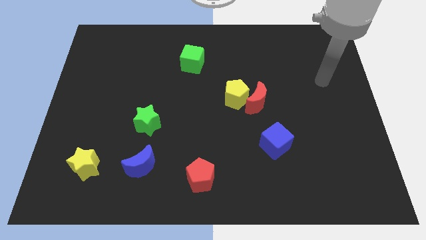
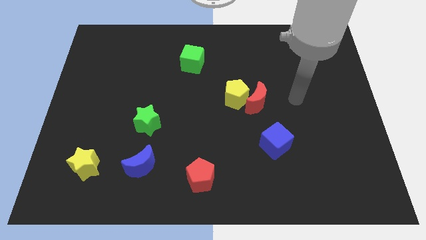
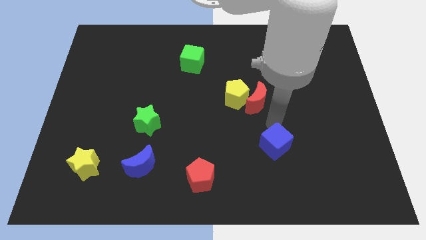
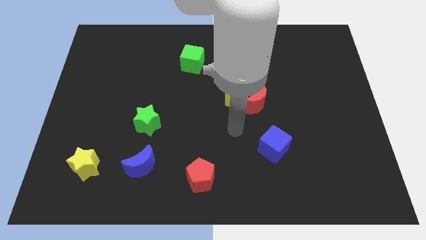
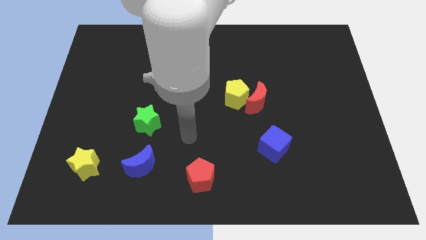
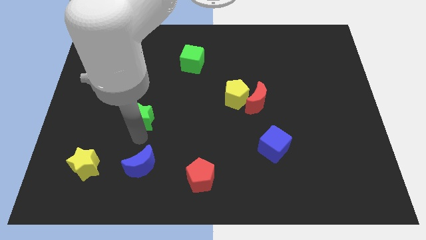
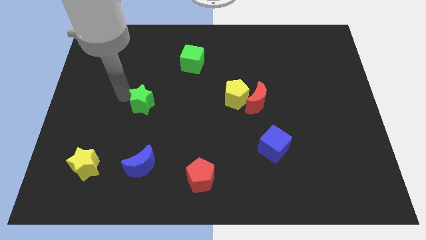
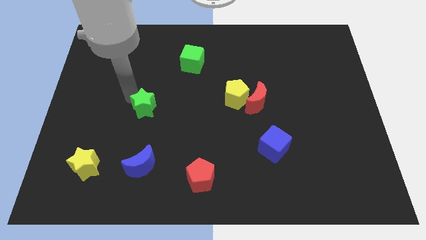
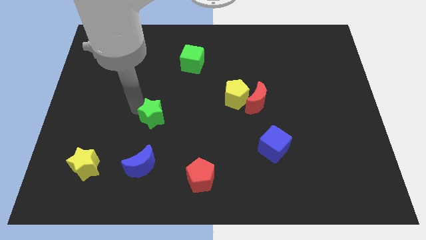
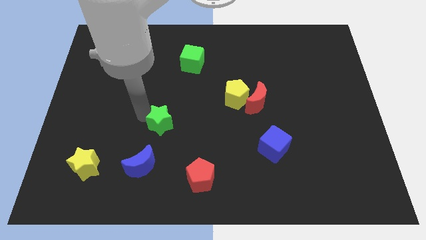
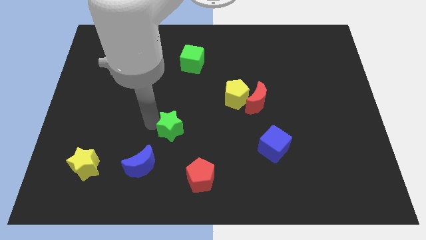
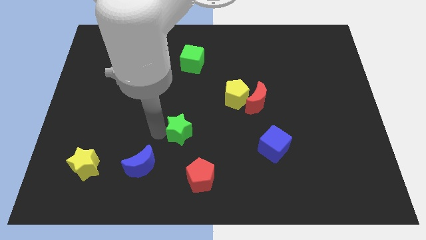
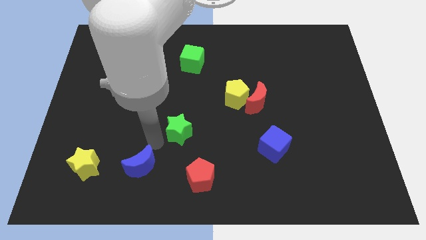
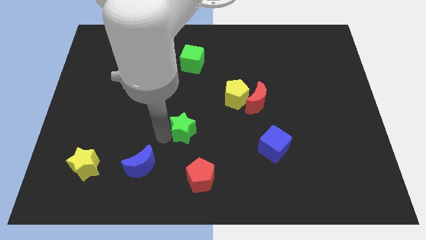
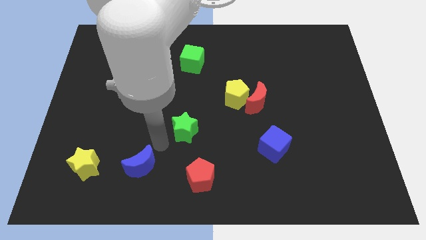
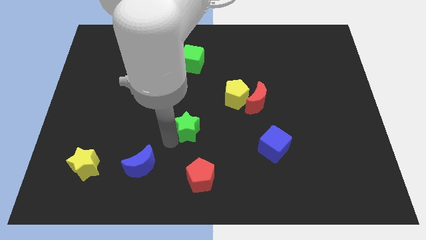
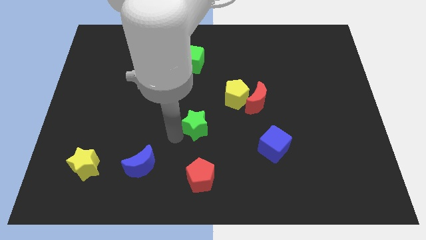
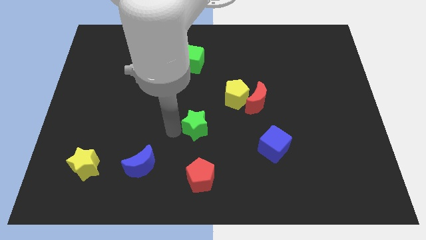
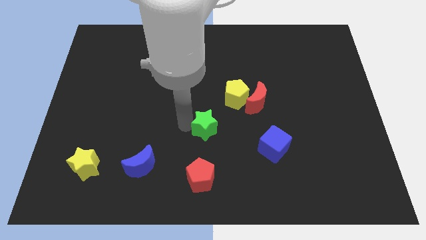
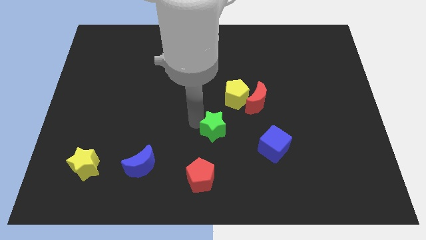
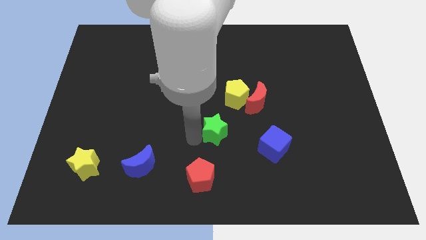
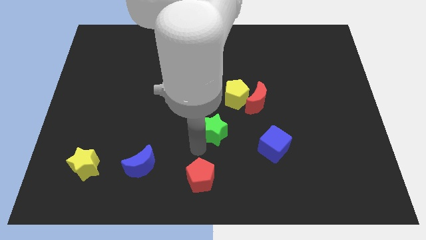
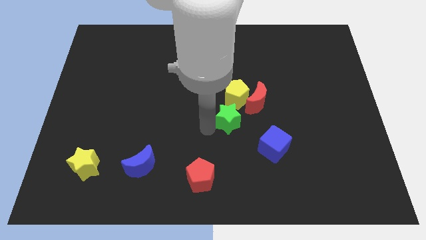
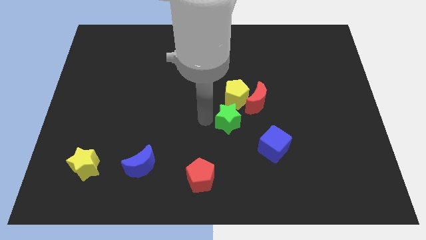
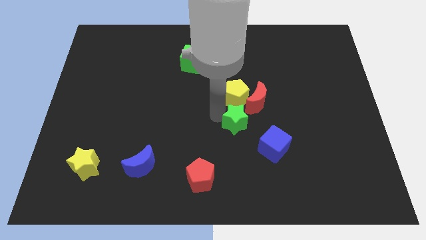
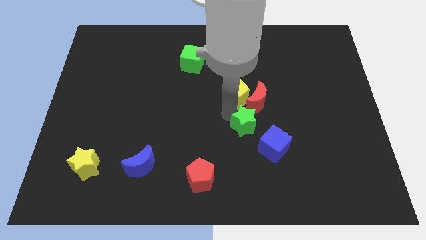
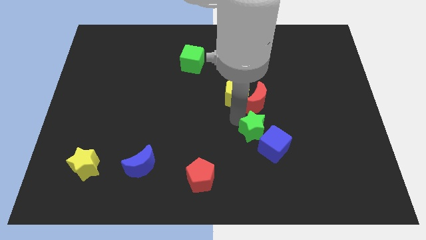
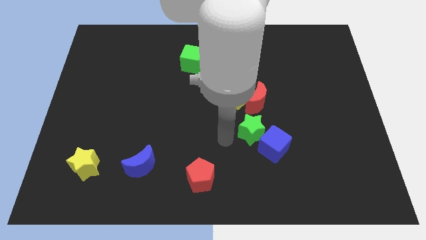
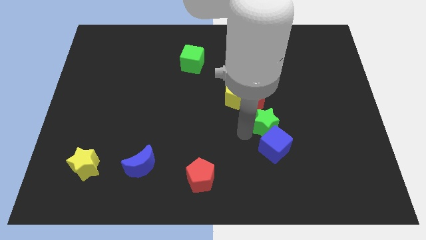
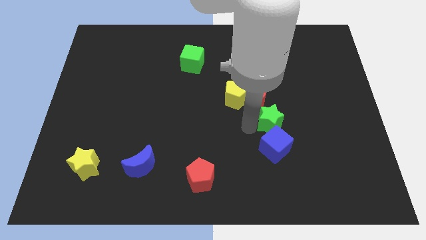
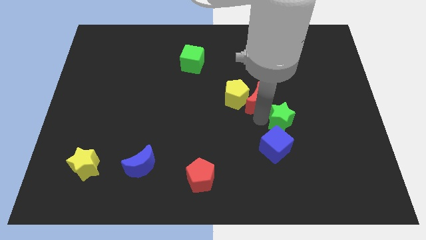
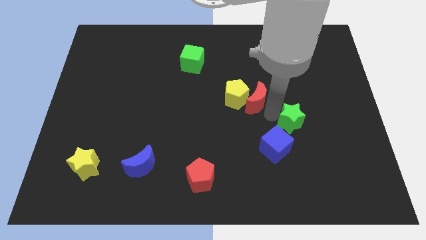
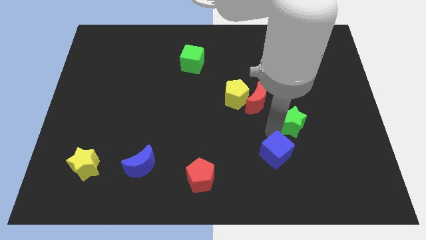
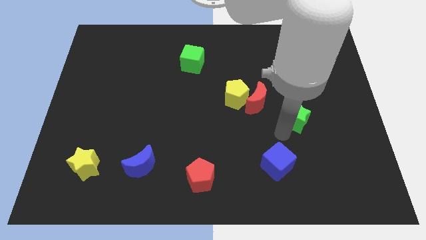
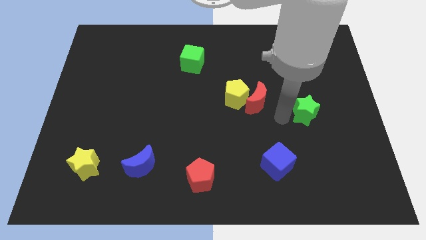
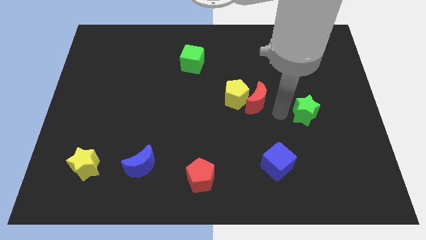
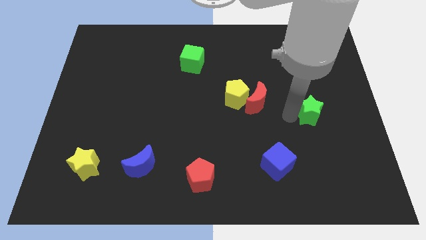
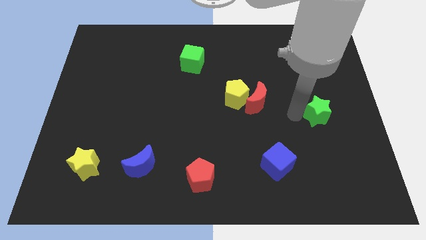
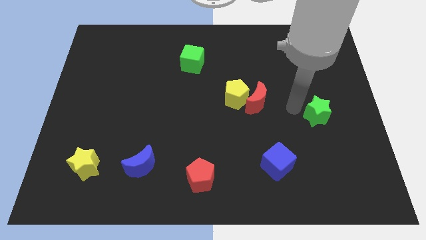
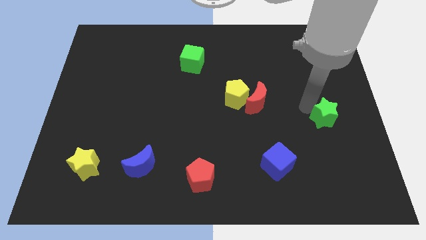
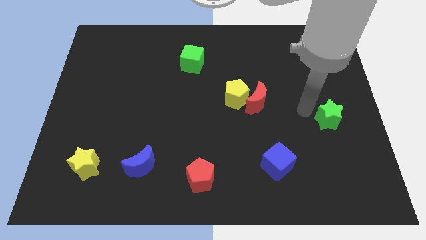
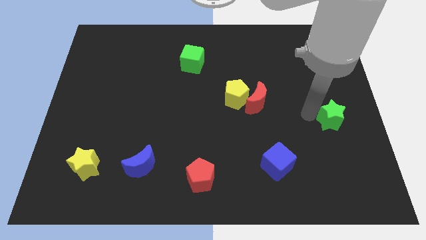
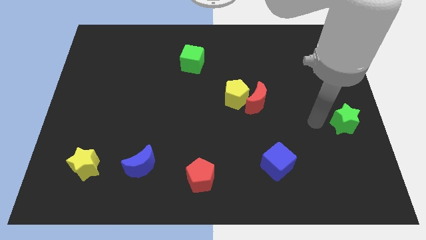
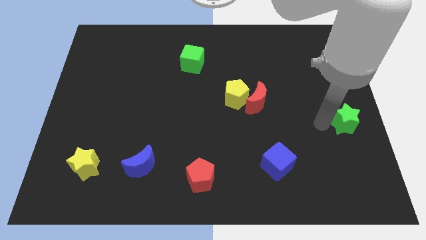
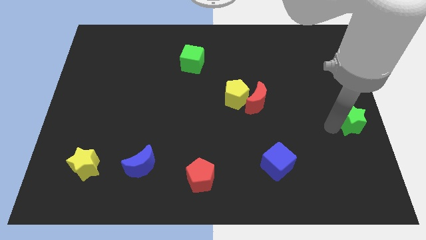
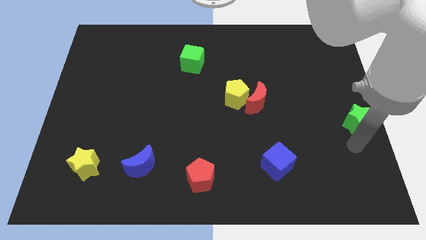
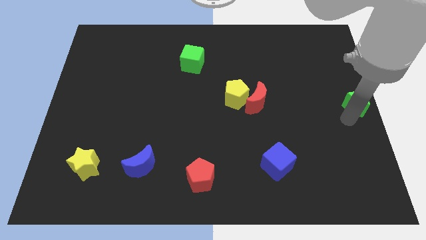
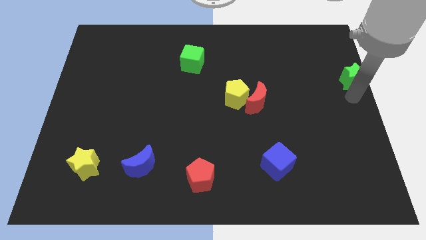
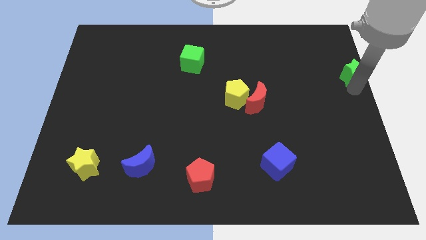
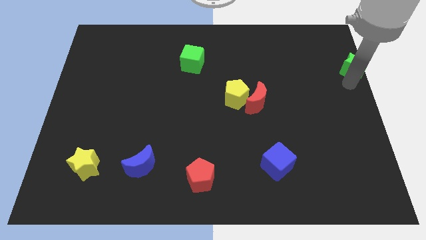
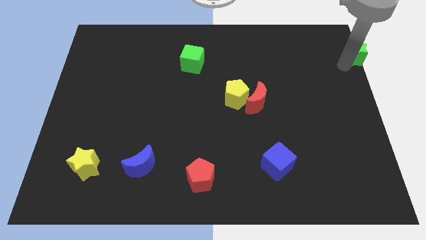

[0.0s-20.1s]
push the green star to the top right

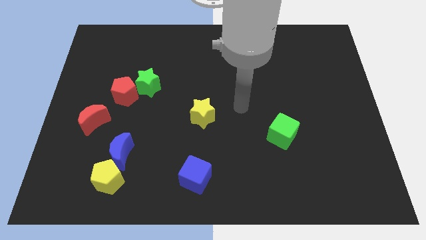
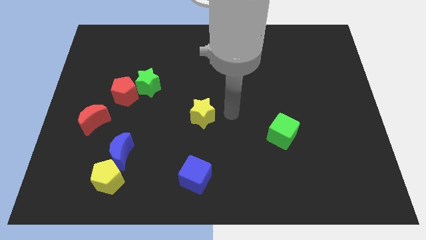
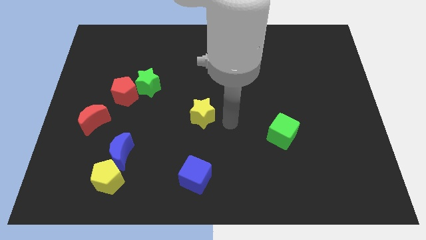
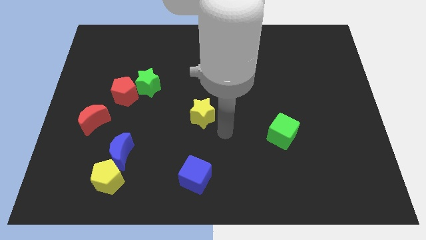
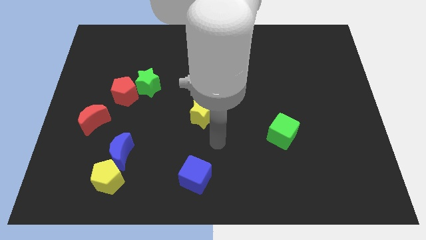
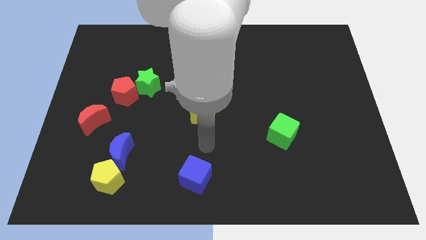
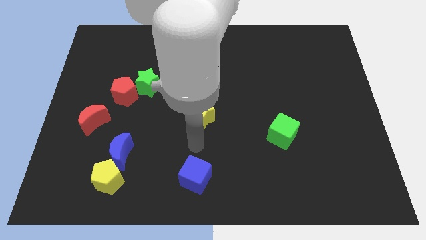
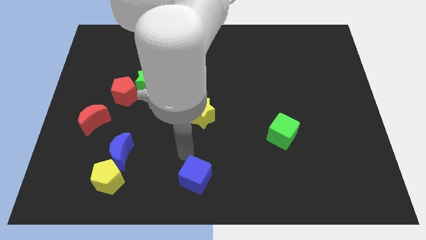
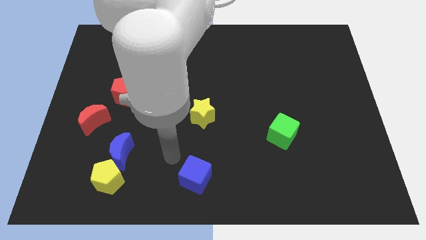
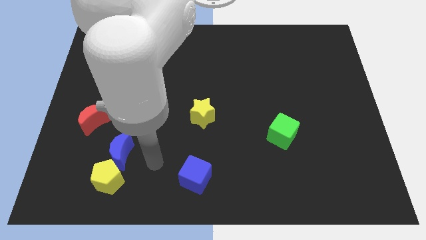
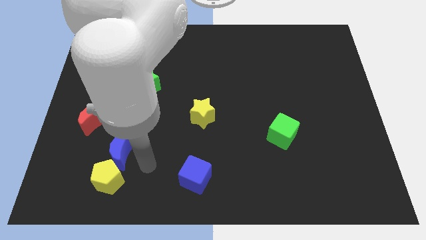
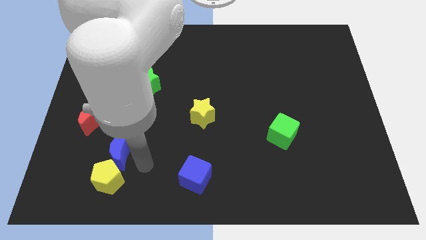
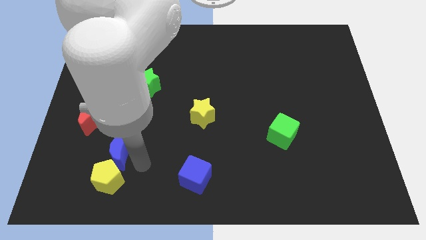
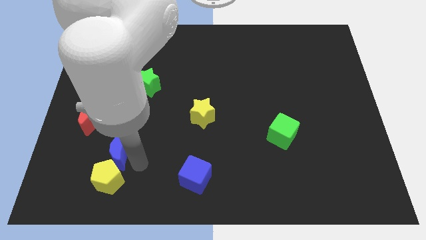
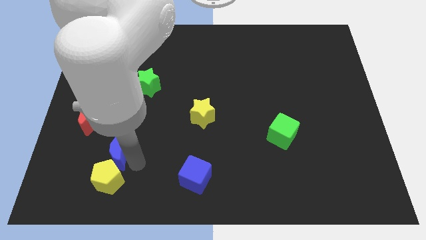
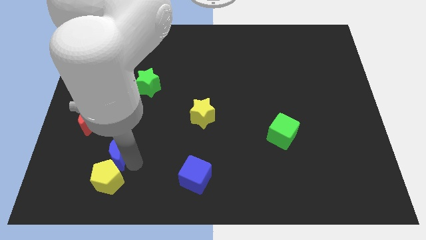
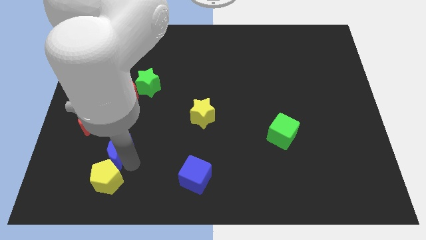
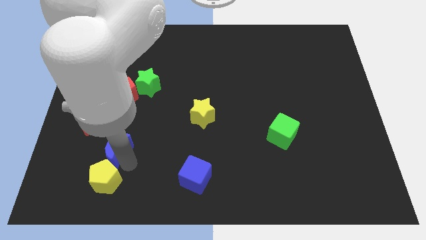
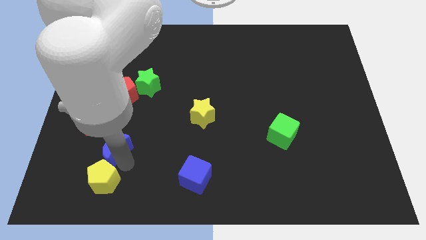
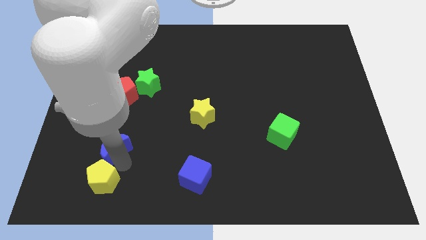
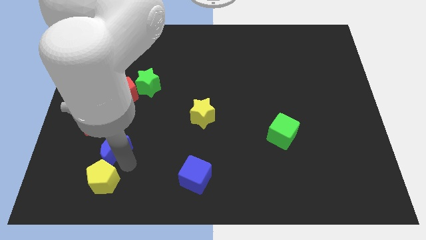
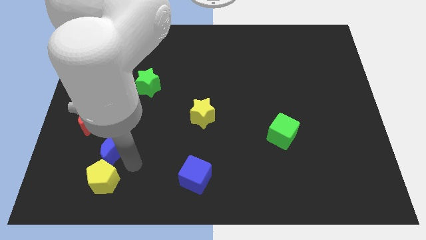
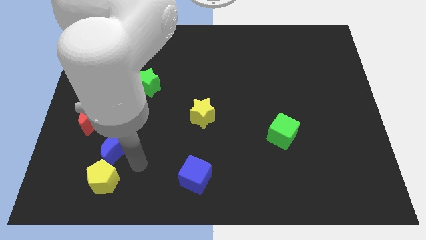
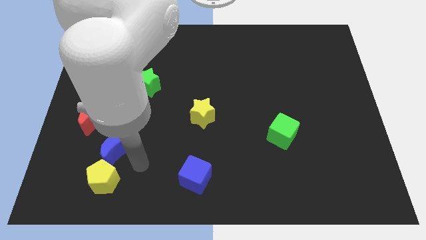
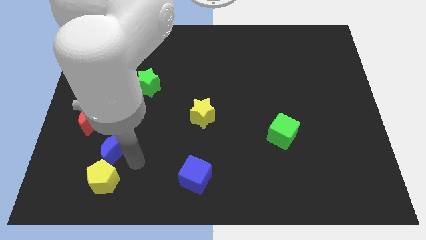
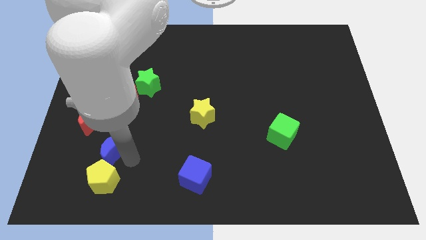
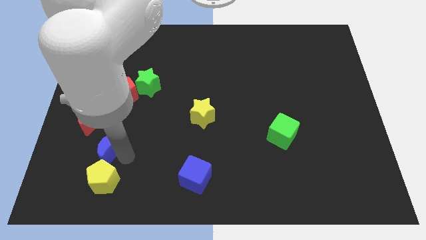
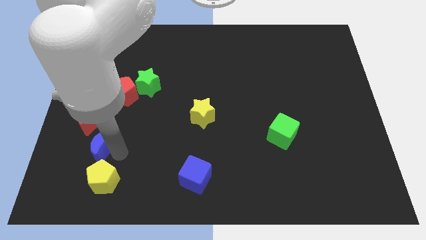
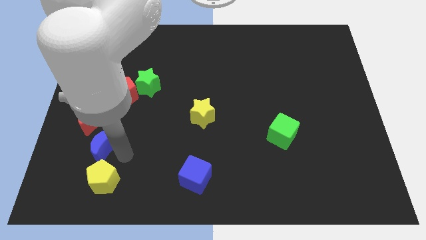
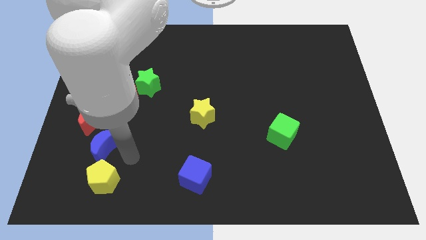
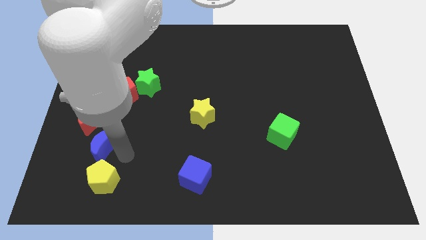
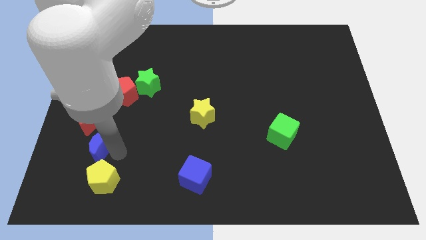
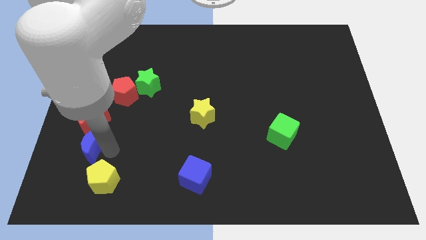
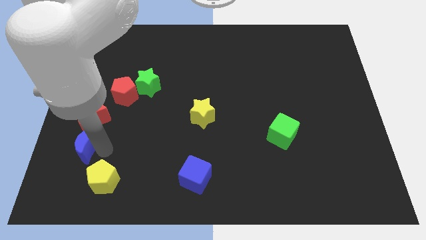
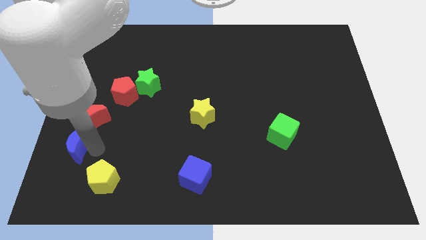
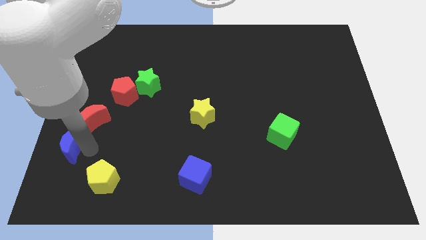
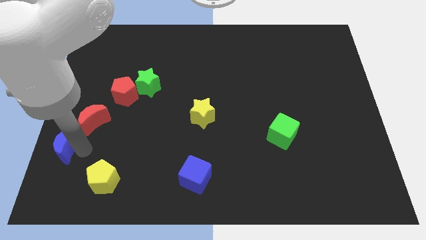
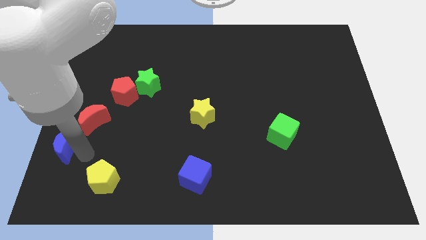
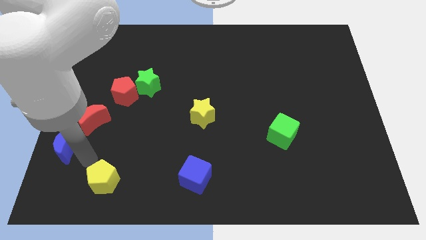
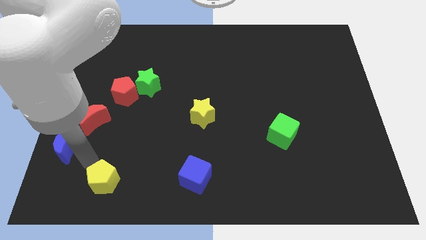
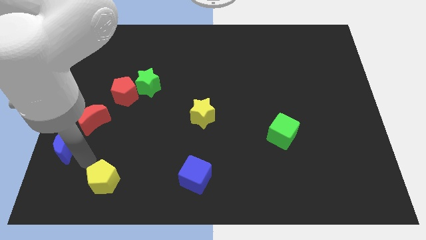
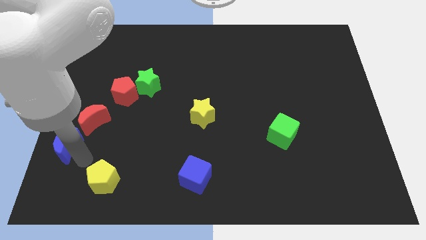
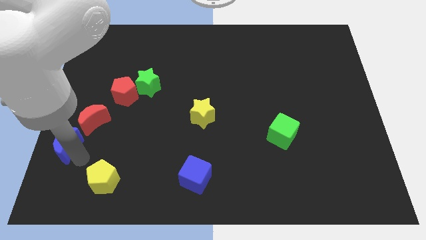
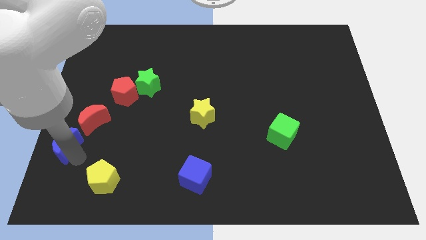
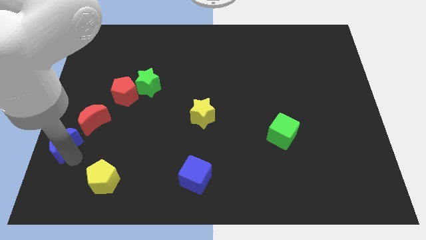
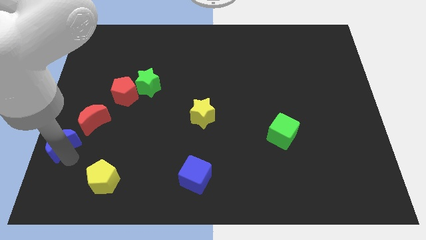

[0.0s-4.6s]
put the blue moon to the left side
